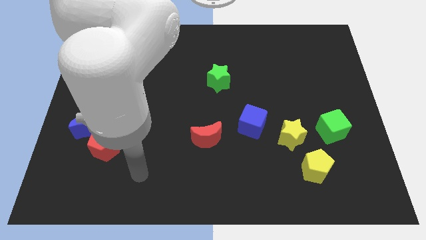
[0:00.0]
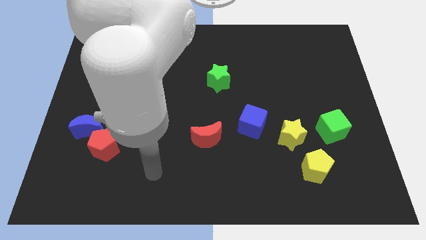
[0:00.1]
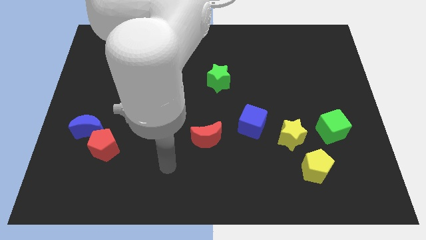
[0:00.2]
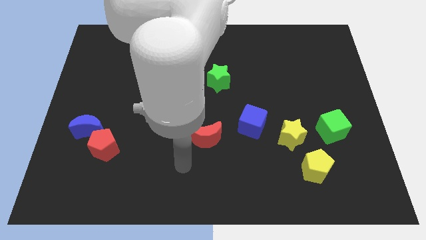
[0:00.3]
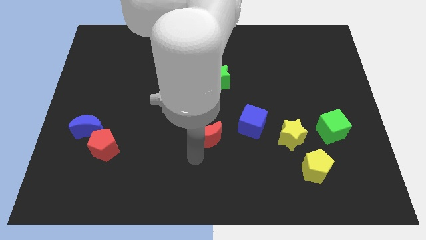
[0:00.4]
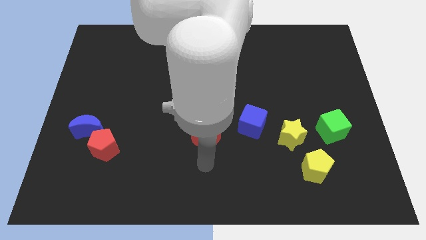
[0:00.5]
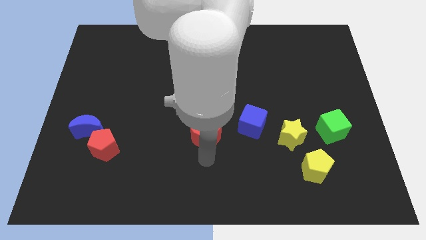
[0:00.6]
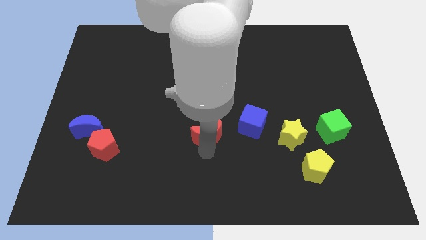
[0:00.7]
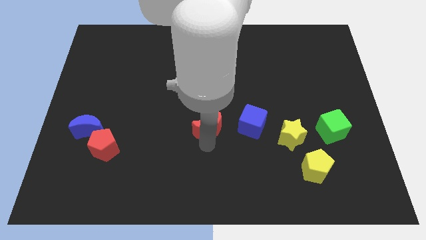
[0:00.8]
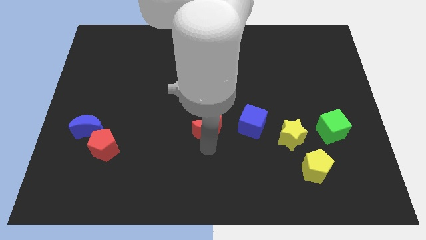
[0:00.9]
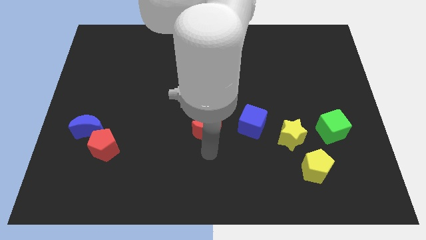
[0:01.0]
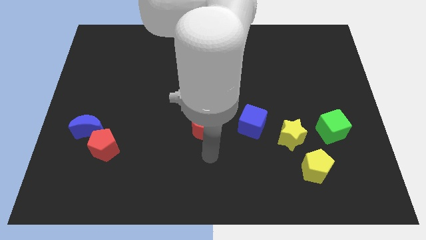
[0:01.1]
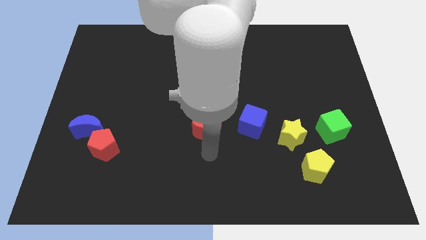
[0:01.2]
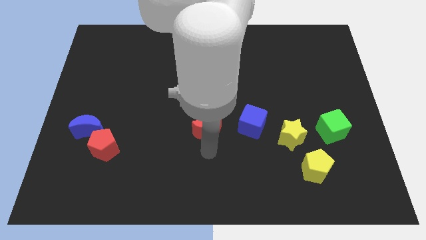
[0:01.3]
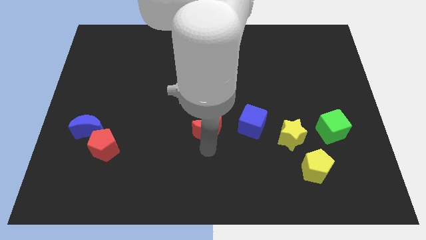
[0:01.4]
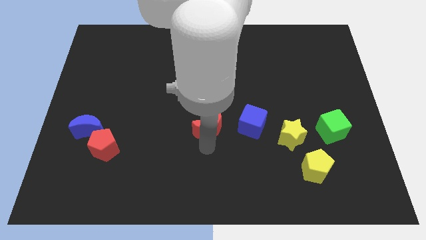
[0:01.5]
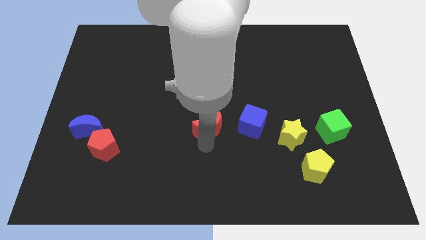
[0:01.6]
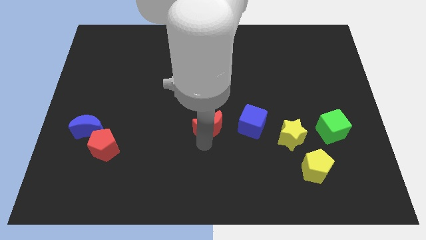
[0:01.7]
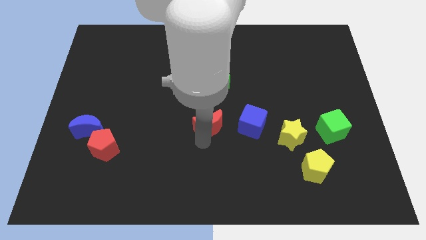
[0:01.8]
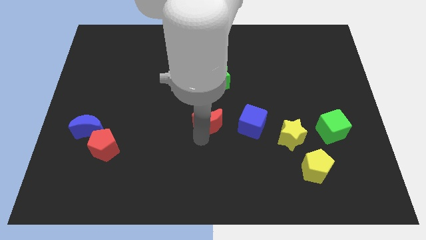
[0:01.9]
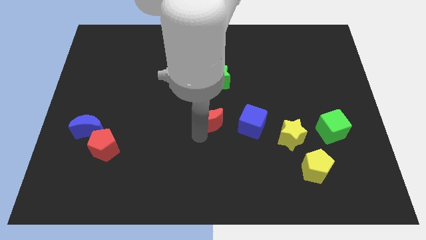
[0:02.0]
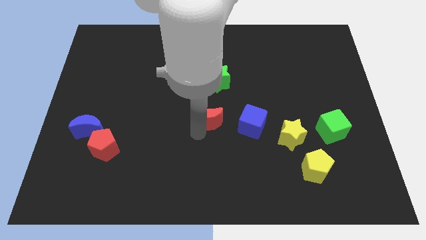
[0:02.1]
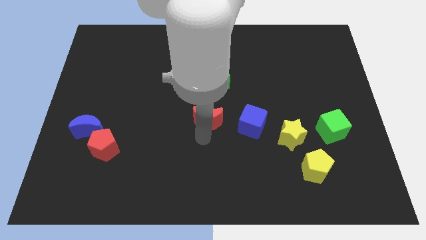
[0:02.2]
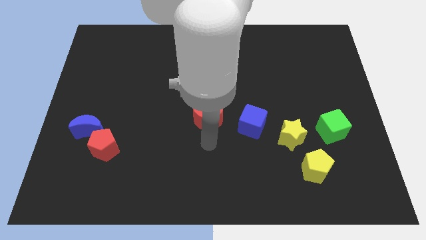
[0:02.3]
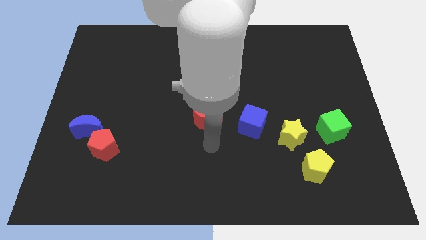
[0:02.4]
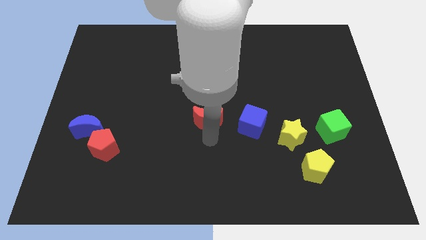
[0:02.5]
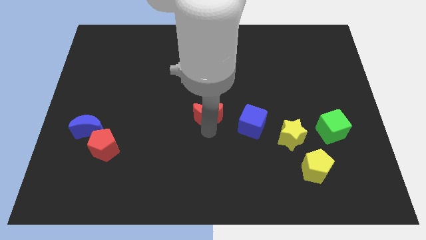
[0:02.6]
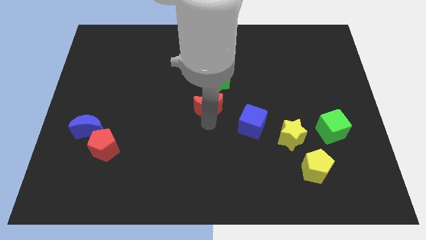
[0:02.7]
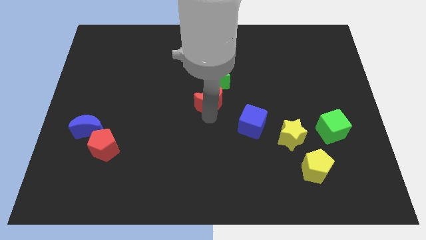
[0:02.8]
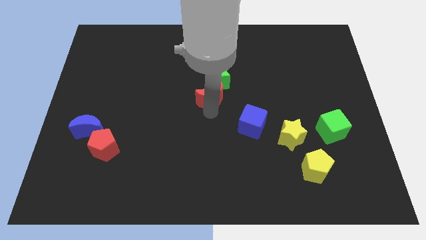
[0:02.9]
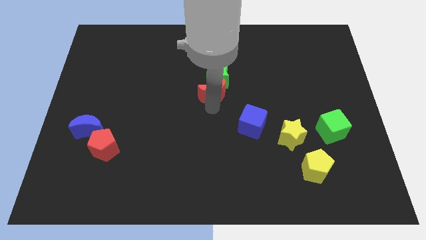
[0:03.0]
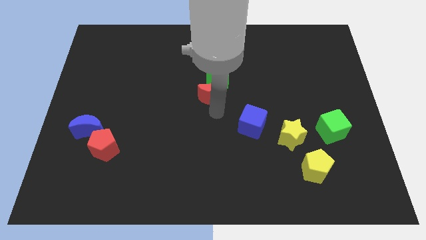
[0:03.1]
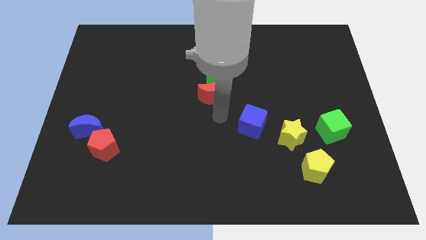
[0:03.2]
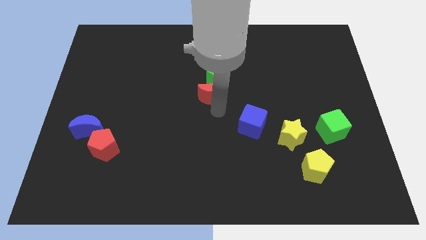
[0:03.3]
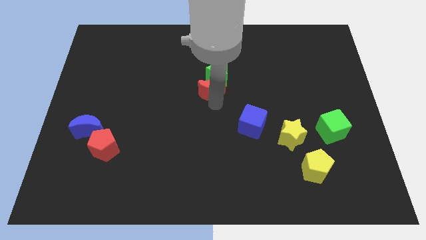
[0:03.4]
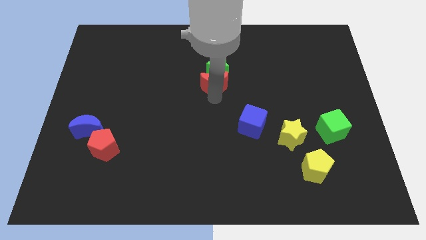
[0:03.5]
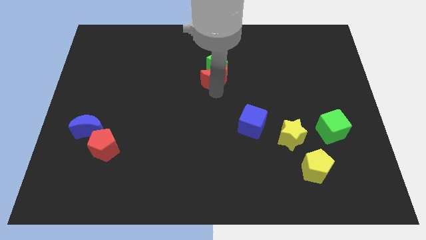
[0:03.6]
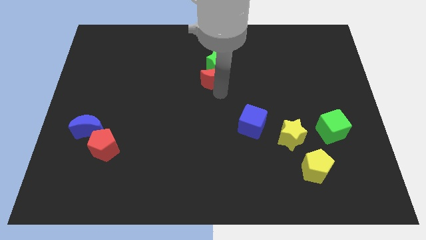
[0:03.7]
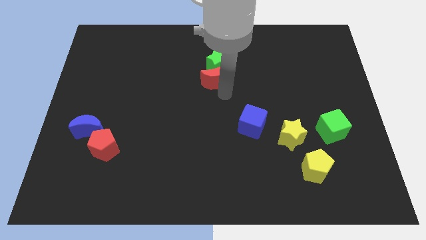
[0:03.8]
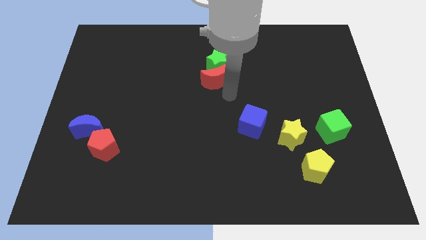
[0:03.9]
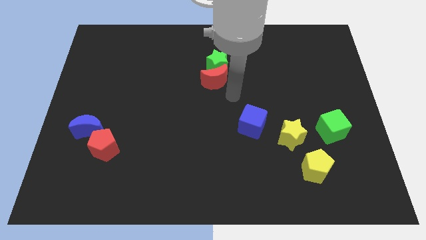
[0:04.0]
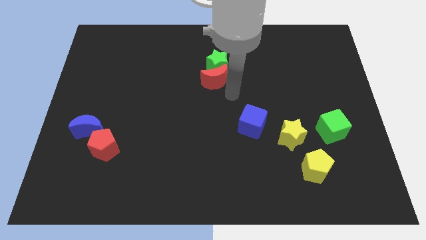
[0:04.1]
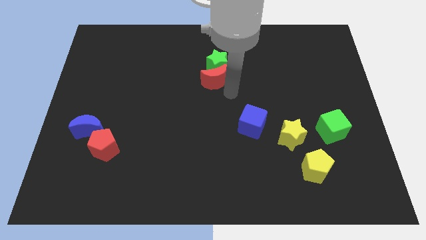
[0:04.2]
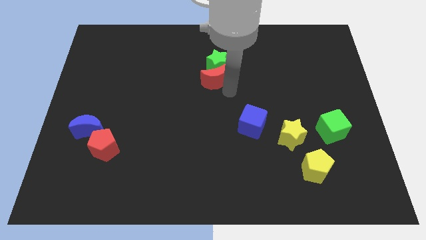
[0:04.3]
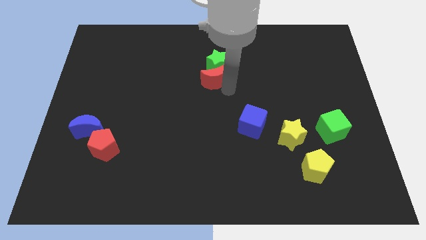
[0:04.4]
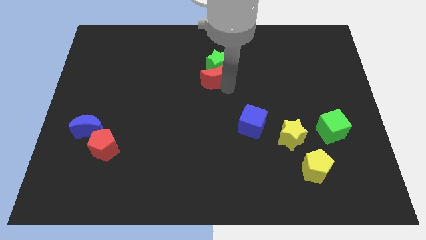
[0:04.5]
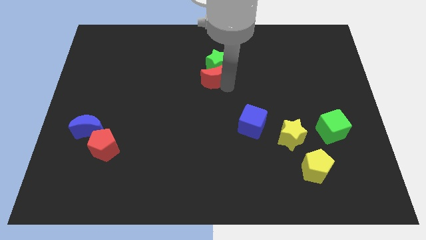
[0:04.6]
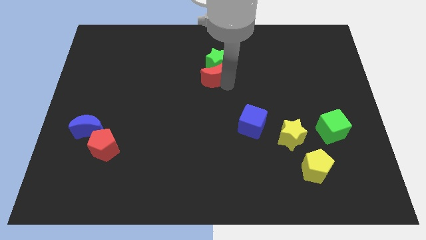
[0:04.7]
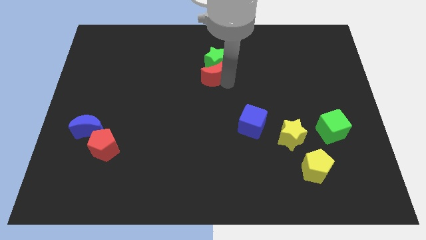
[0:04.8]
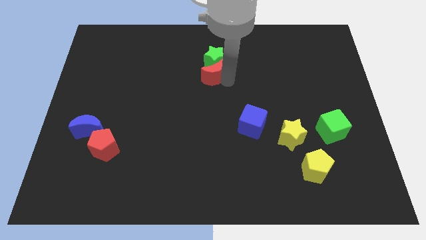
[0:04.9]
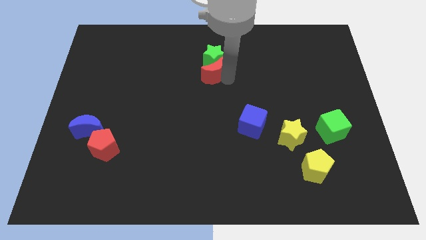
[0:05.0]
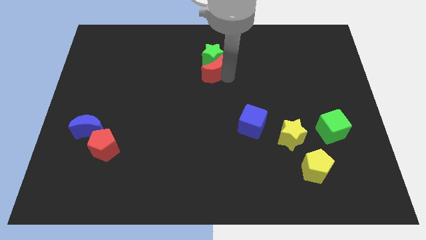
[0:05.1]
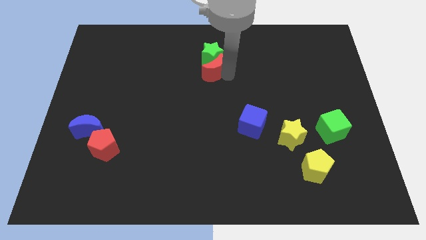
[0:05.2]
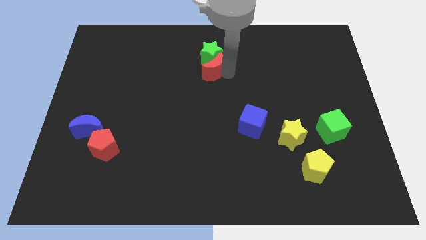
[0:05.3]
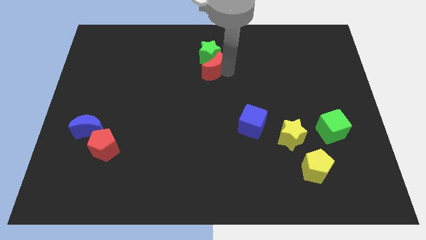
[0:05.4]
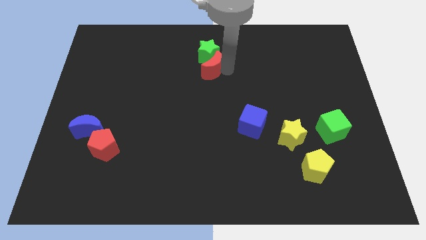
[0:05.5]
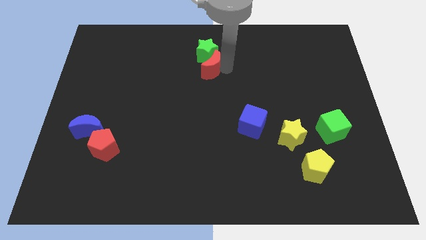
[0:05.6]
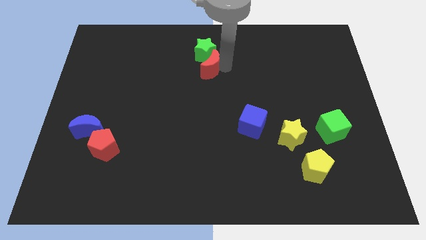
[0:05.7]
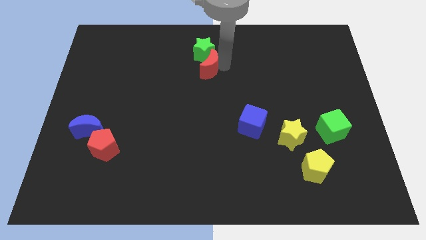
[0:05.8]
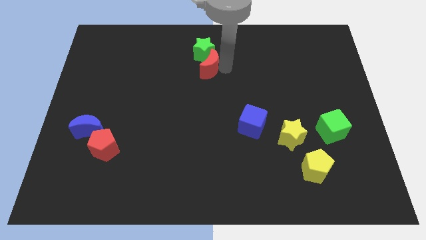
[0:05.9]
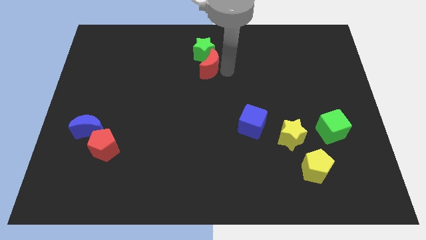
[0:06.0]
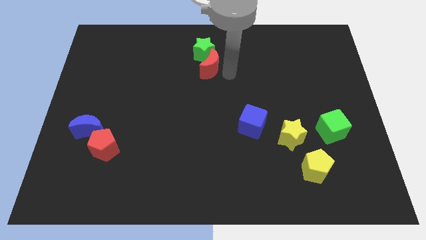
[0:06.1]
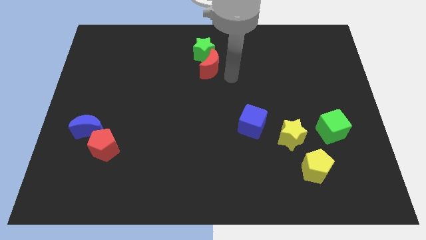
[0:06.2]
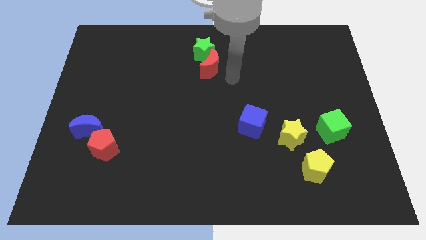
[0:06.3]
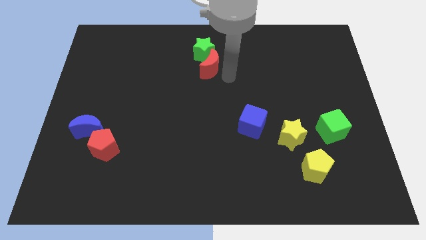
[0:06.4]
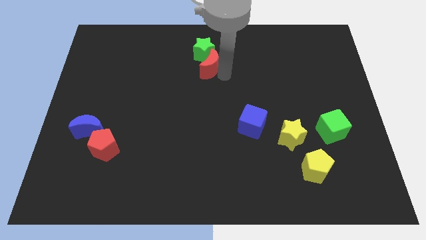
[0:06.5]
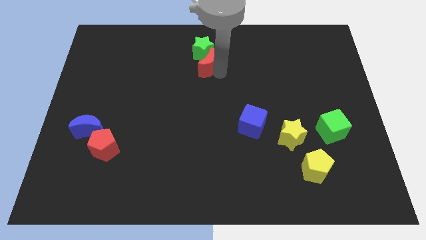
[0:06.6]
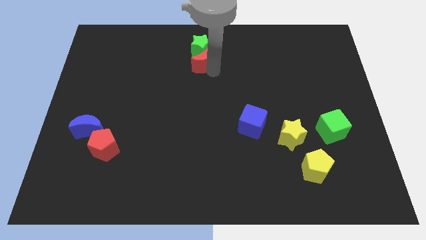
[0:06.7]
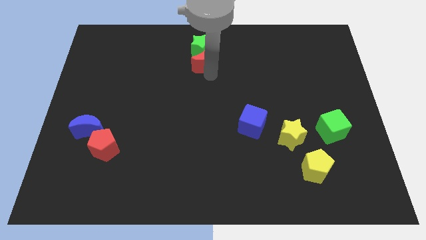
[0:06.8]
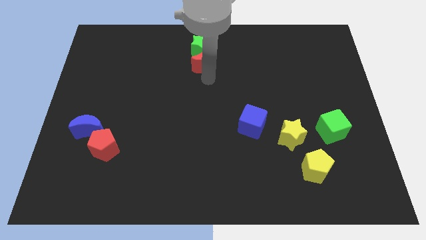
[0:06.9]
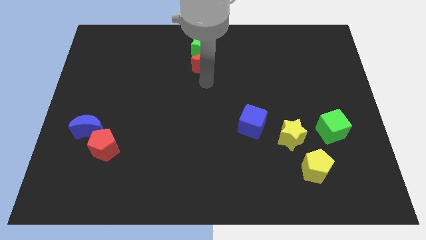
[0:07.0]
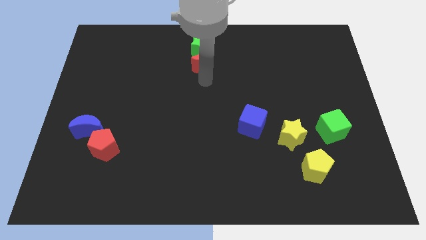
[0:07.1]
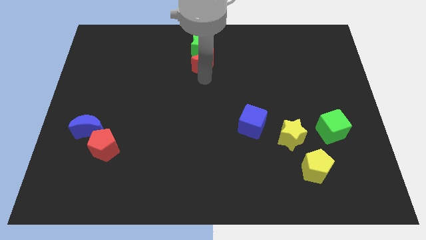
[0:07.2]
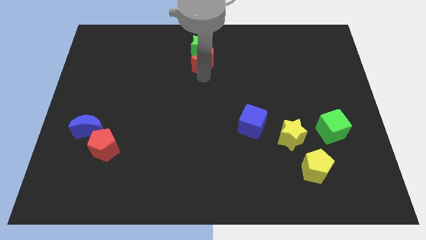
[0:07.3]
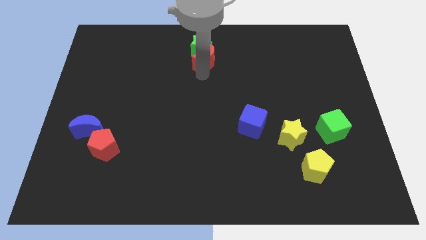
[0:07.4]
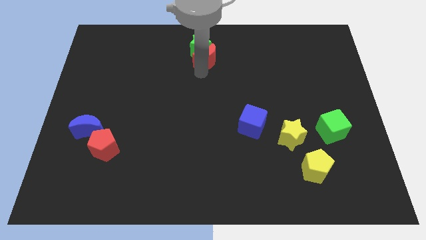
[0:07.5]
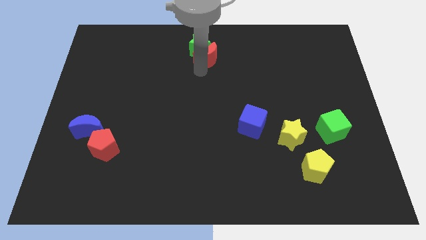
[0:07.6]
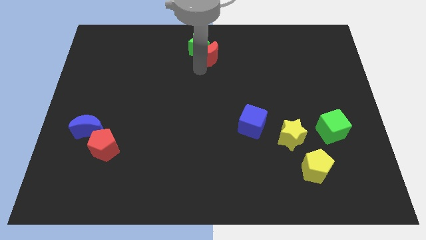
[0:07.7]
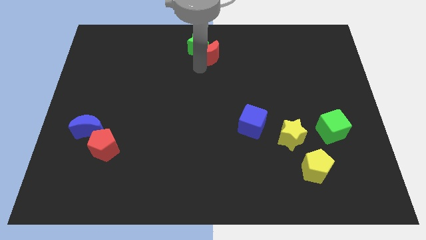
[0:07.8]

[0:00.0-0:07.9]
push the red moon to the top
